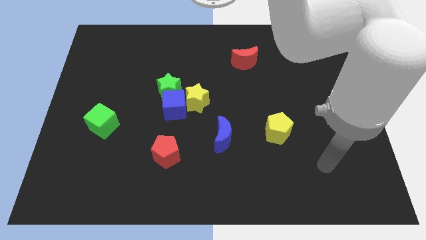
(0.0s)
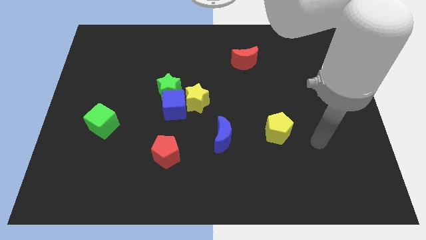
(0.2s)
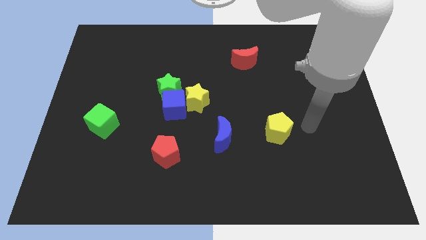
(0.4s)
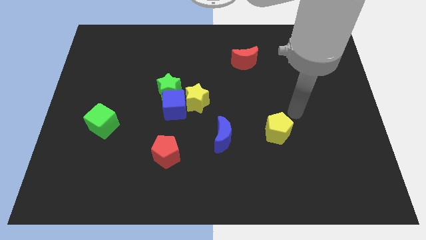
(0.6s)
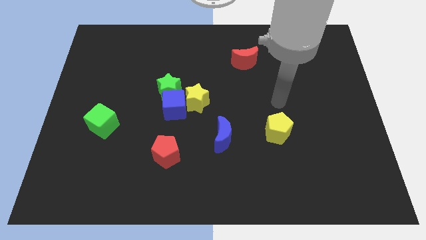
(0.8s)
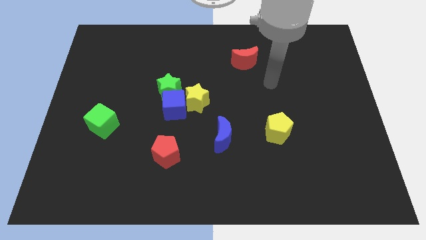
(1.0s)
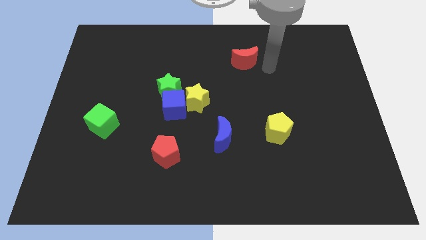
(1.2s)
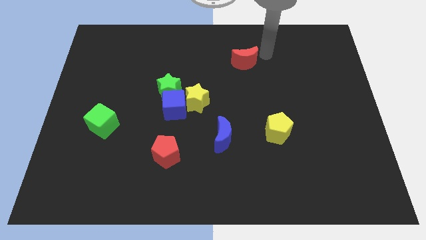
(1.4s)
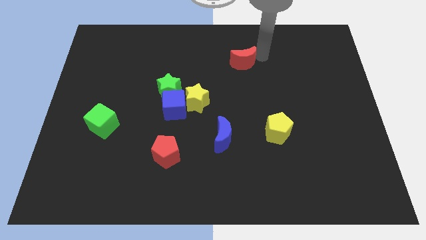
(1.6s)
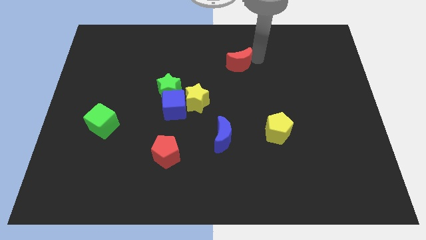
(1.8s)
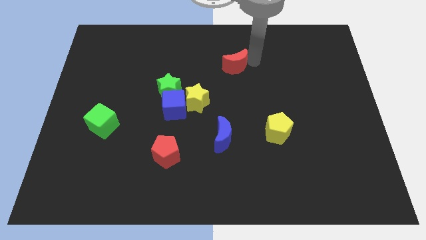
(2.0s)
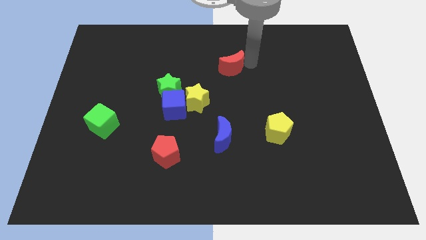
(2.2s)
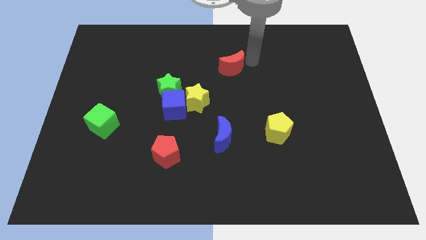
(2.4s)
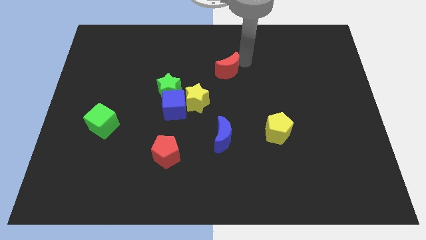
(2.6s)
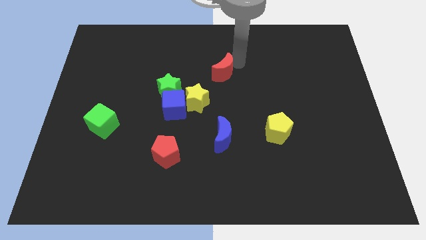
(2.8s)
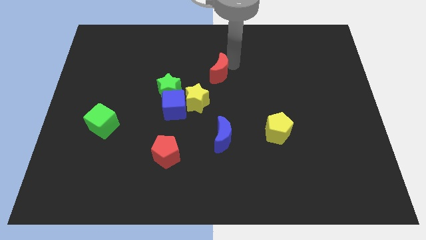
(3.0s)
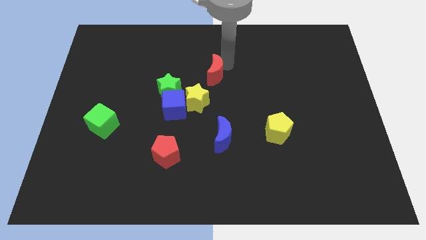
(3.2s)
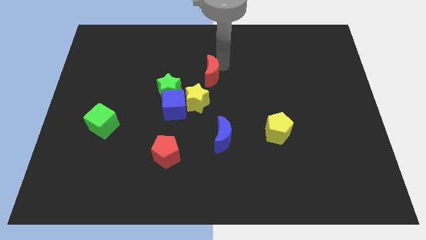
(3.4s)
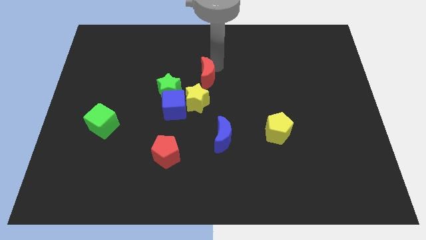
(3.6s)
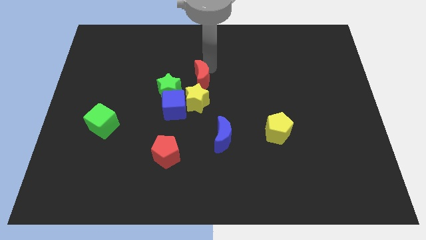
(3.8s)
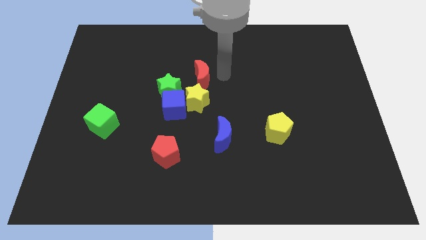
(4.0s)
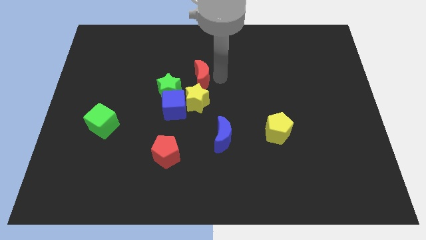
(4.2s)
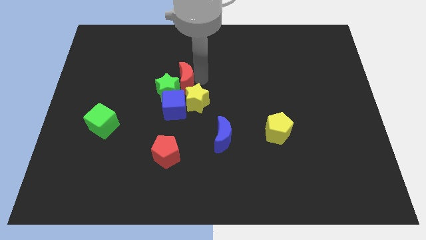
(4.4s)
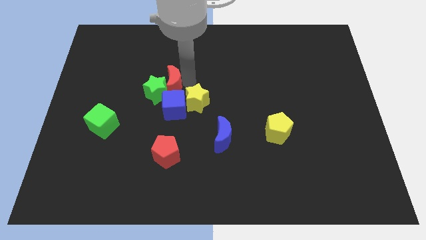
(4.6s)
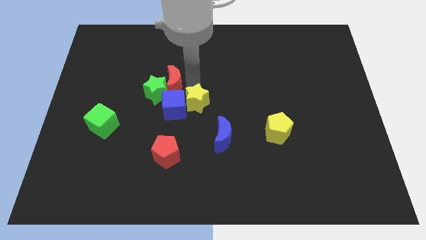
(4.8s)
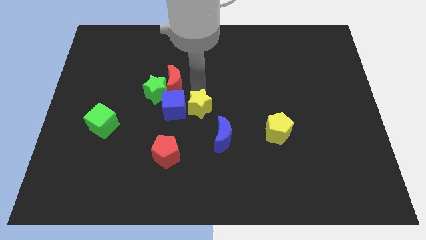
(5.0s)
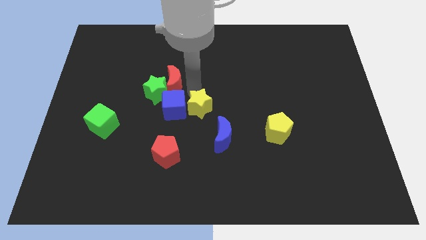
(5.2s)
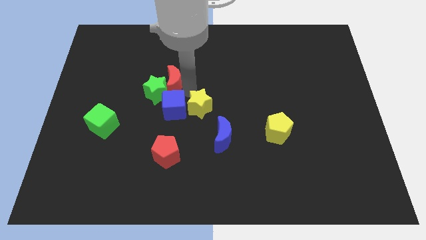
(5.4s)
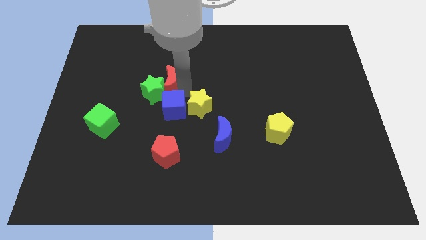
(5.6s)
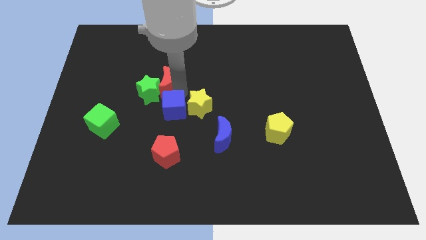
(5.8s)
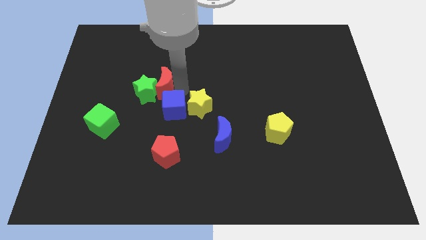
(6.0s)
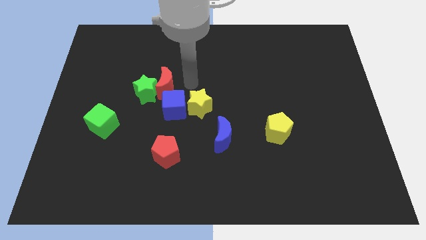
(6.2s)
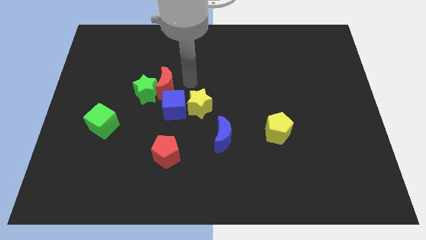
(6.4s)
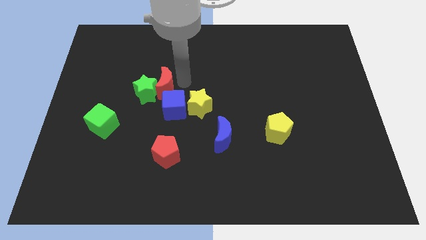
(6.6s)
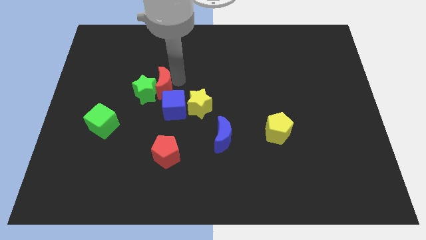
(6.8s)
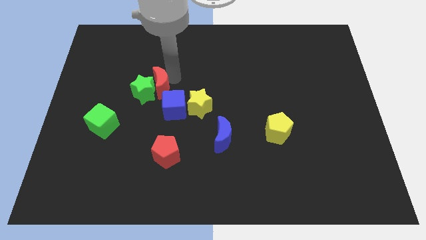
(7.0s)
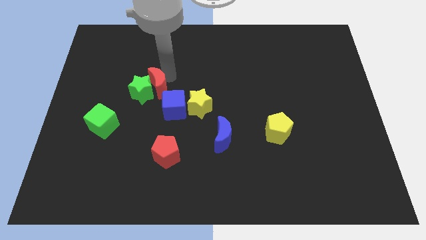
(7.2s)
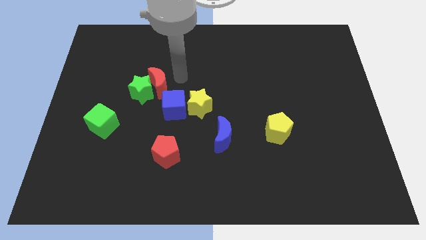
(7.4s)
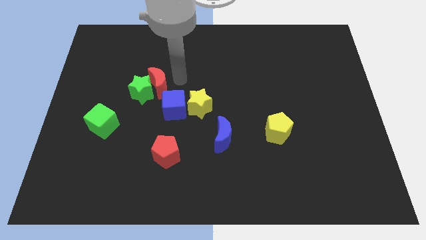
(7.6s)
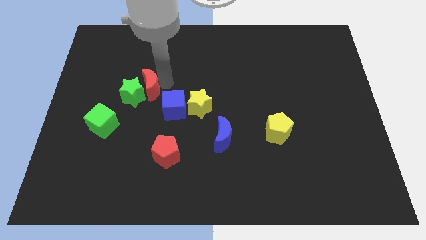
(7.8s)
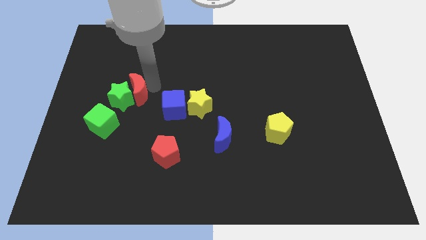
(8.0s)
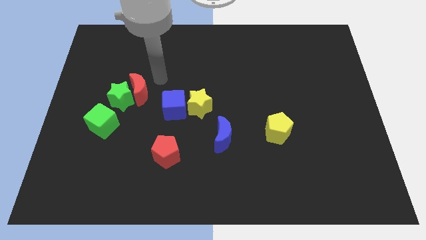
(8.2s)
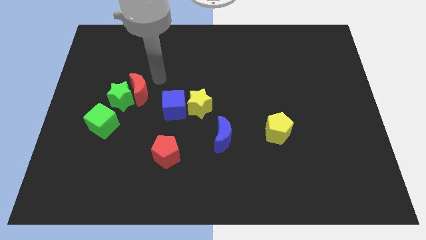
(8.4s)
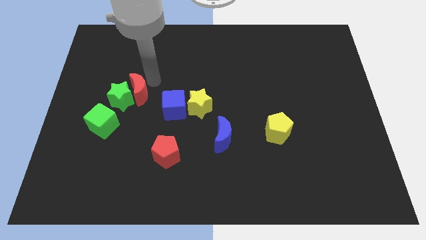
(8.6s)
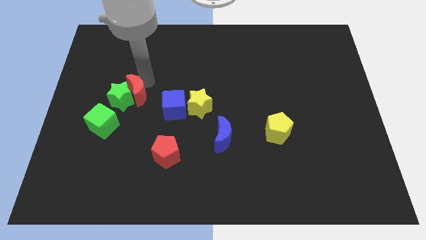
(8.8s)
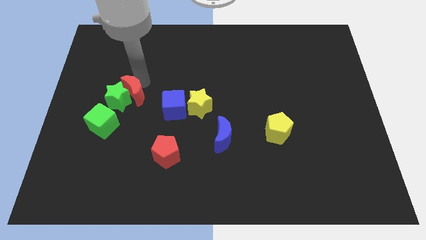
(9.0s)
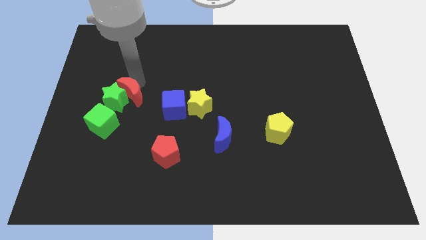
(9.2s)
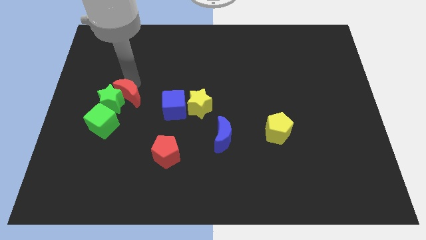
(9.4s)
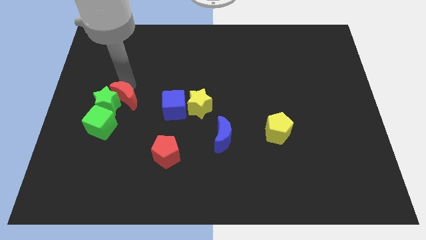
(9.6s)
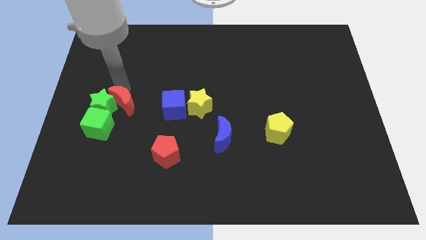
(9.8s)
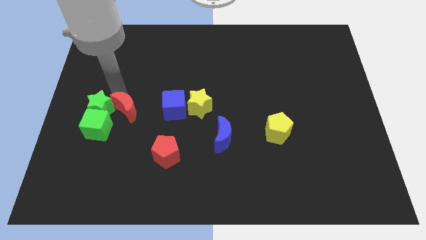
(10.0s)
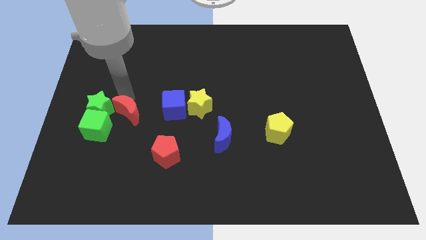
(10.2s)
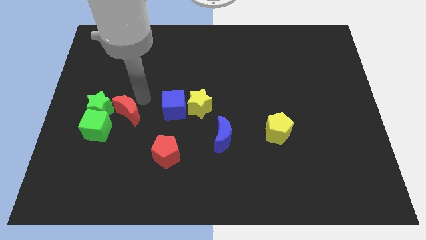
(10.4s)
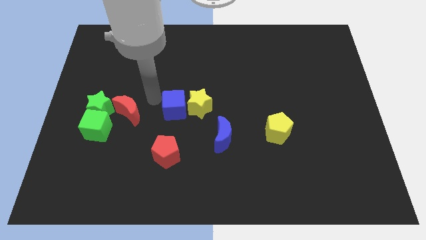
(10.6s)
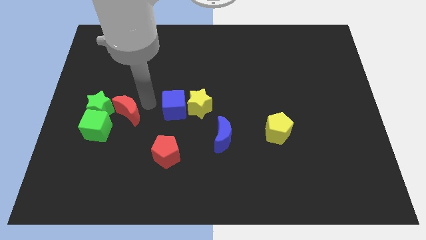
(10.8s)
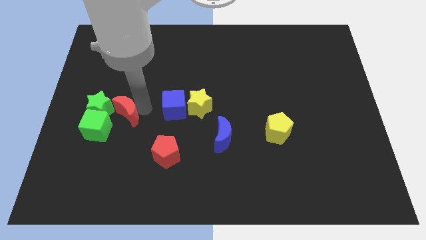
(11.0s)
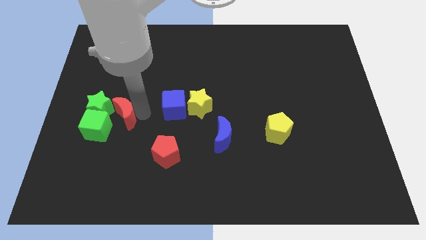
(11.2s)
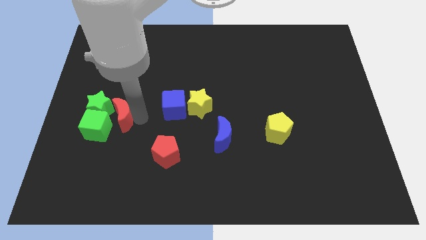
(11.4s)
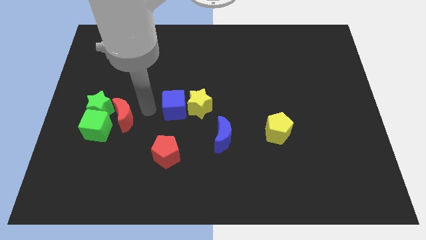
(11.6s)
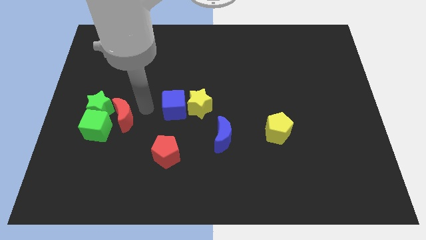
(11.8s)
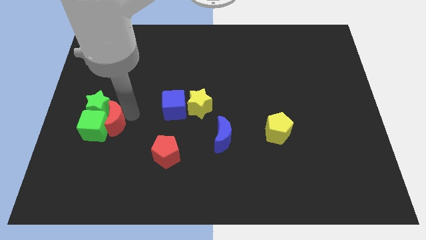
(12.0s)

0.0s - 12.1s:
put the red moon to the green cube

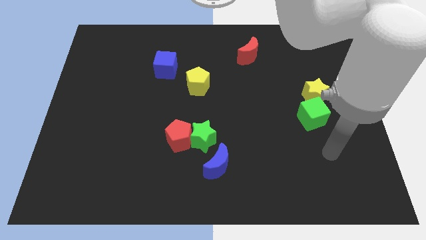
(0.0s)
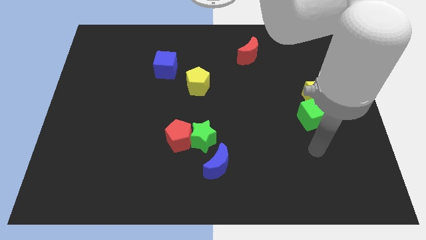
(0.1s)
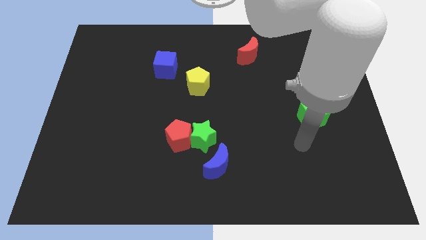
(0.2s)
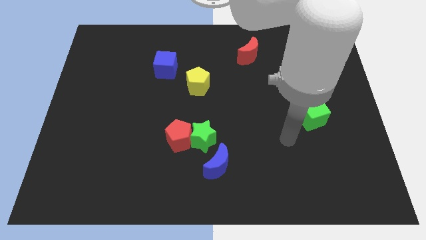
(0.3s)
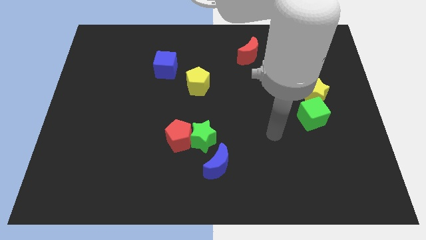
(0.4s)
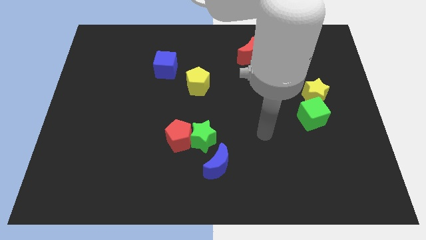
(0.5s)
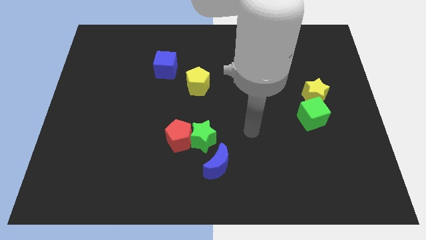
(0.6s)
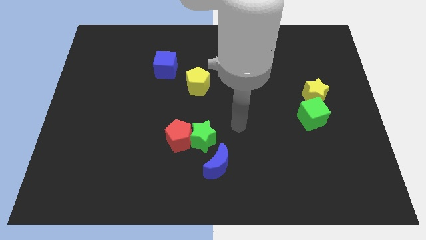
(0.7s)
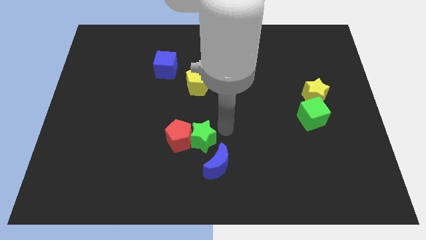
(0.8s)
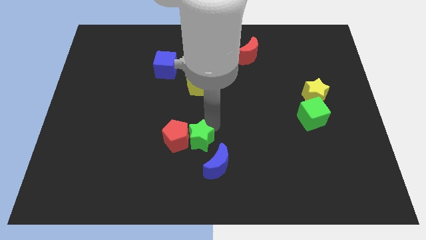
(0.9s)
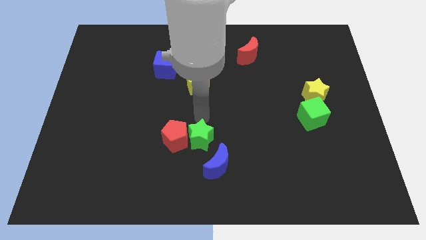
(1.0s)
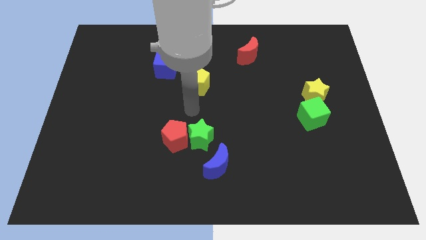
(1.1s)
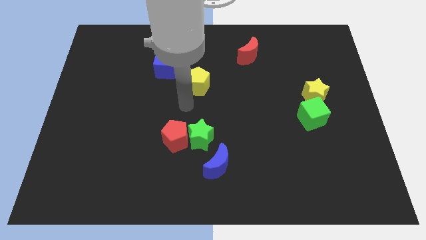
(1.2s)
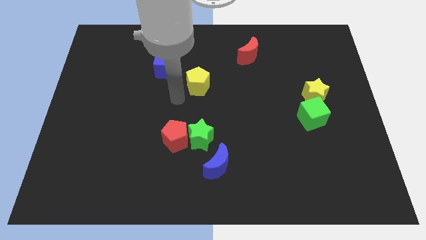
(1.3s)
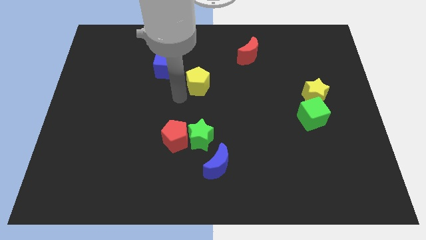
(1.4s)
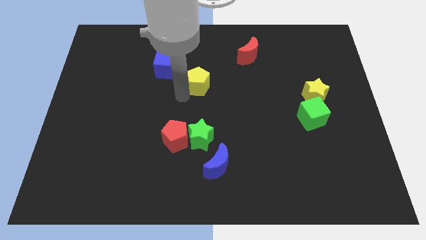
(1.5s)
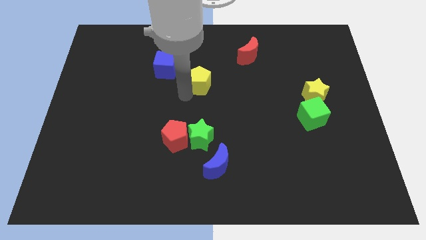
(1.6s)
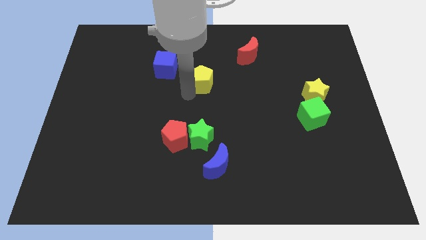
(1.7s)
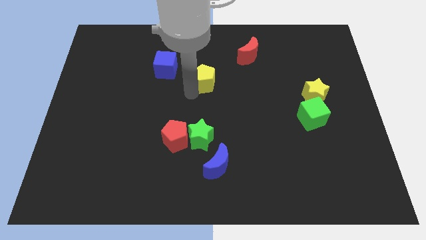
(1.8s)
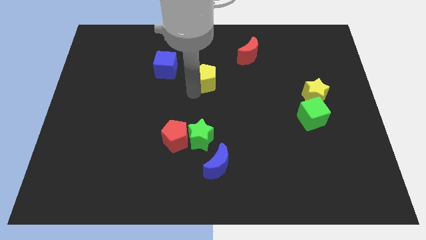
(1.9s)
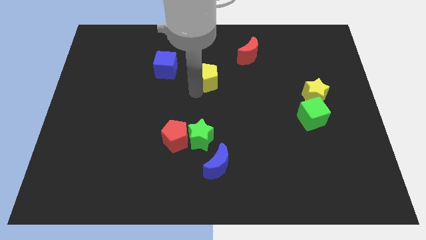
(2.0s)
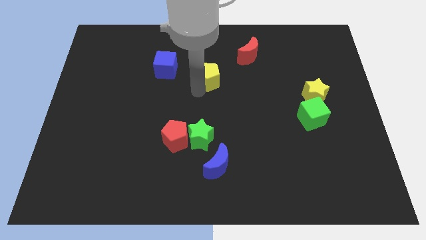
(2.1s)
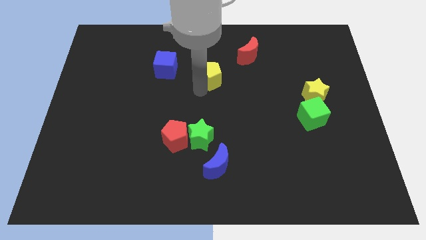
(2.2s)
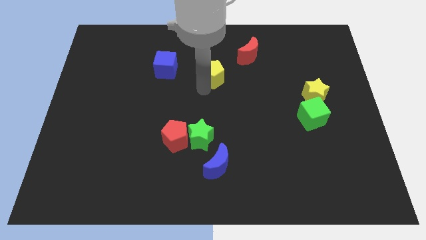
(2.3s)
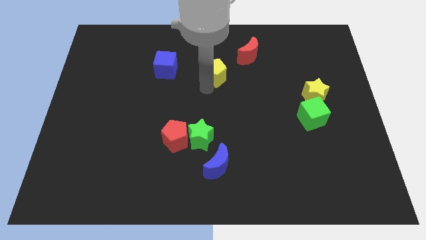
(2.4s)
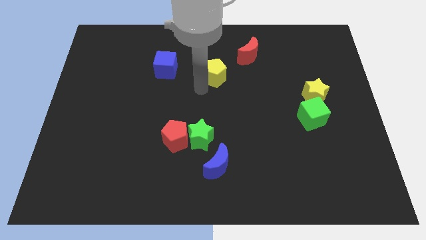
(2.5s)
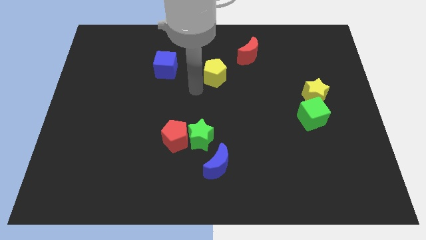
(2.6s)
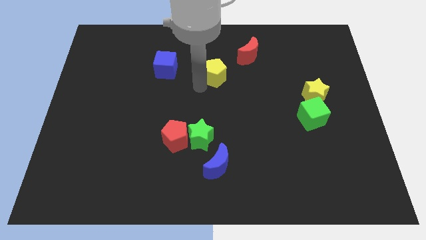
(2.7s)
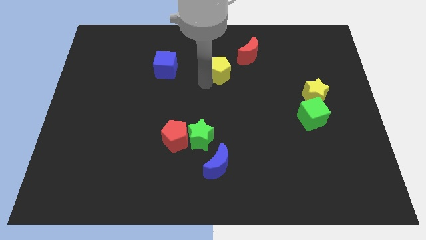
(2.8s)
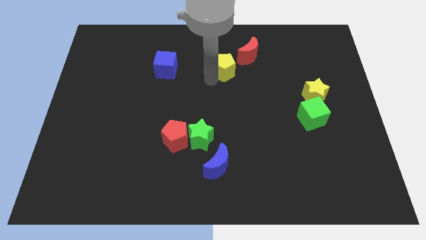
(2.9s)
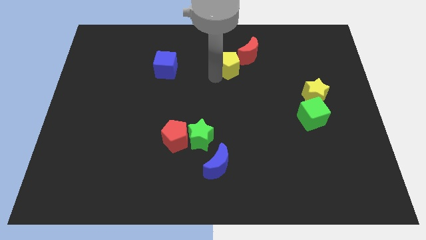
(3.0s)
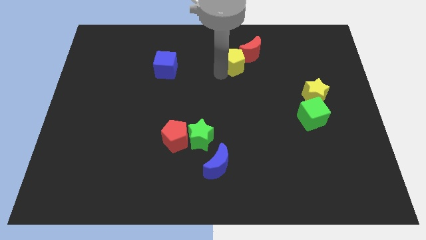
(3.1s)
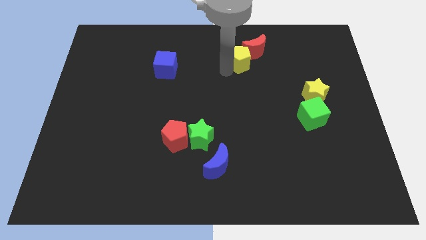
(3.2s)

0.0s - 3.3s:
slide the yellow pentagon towards the red moon
